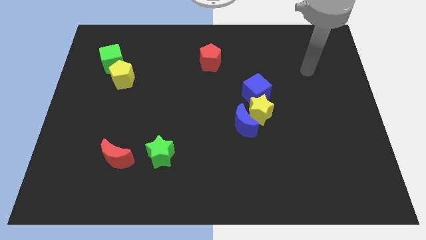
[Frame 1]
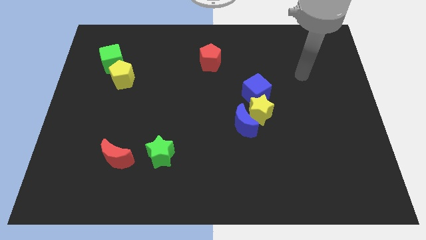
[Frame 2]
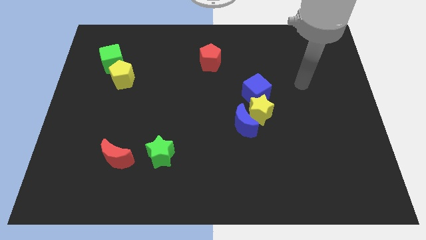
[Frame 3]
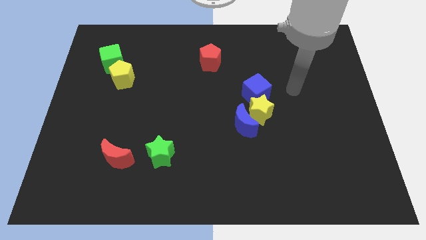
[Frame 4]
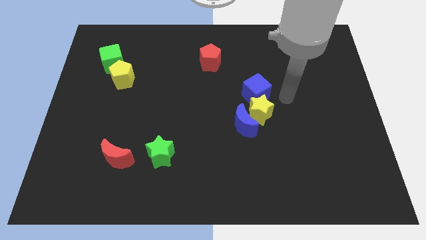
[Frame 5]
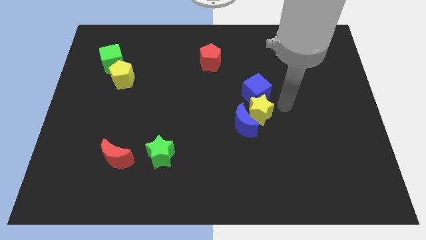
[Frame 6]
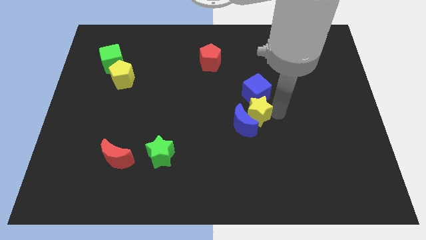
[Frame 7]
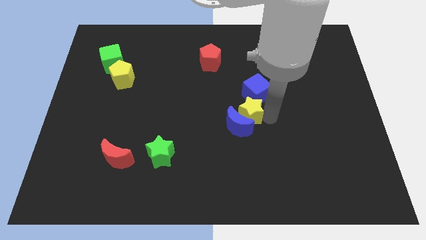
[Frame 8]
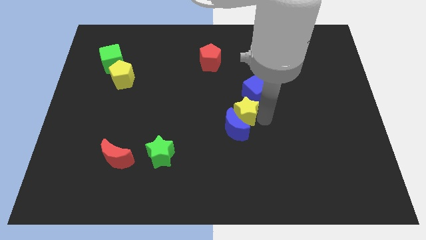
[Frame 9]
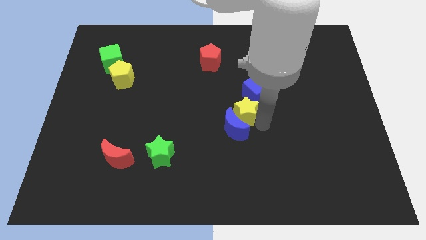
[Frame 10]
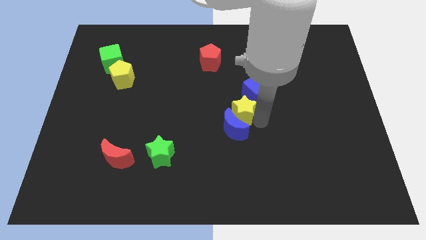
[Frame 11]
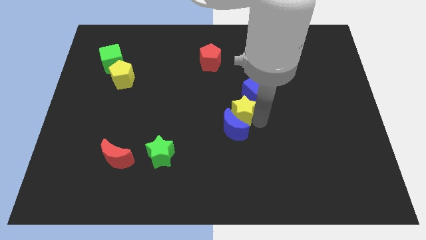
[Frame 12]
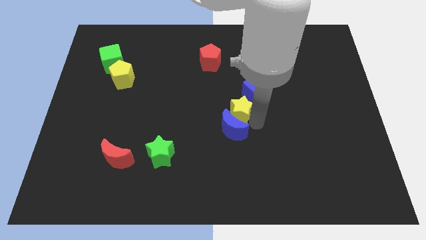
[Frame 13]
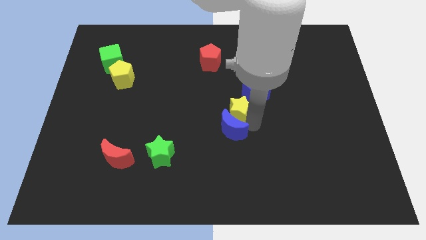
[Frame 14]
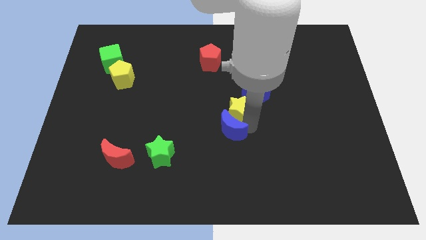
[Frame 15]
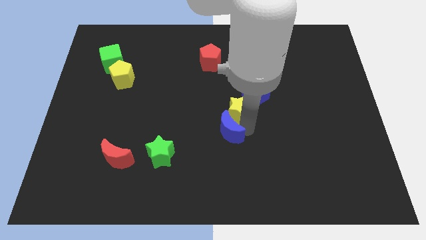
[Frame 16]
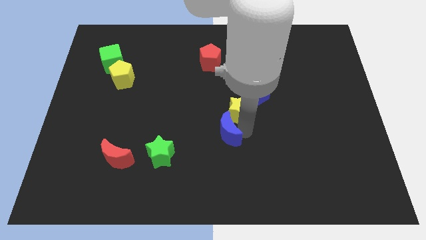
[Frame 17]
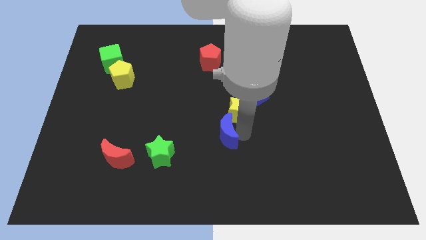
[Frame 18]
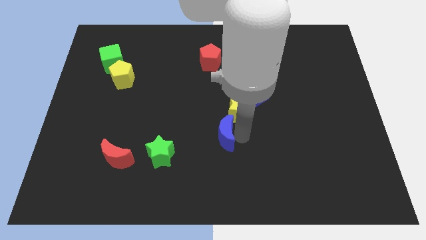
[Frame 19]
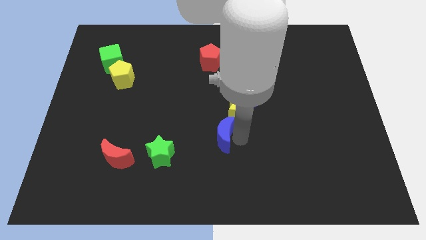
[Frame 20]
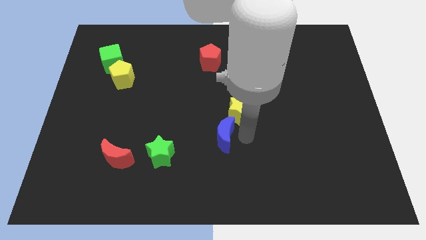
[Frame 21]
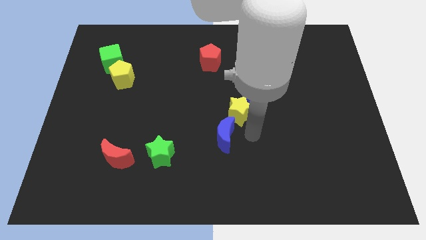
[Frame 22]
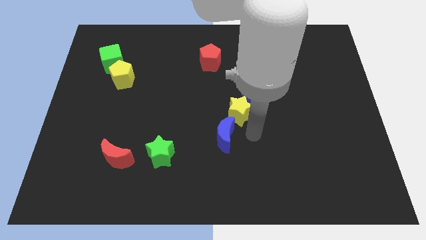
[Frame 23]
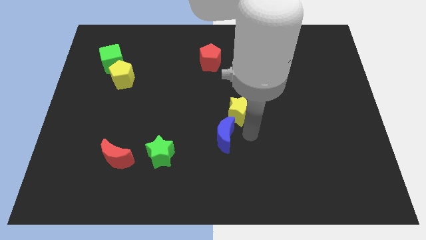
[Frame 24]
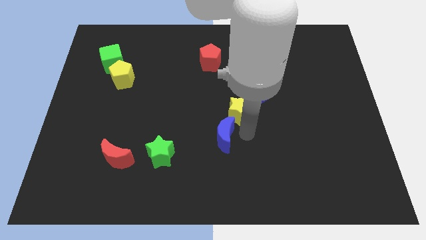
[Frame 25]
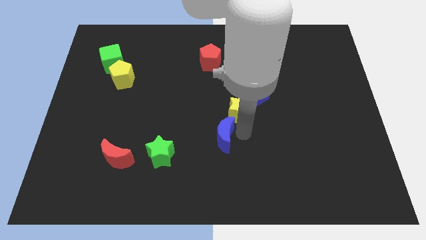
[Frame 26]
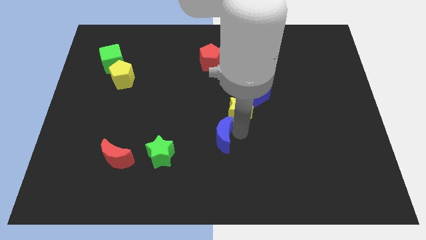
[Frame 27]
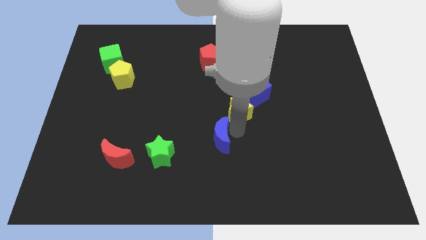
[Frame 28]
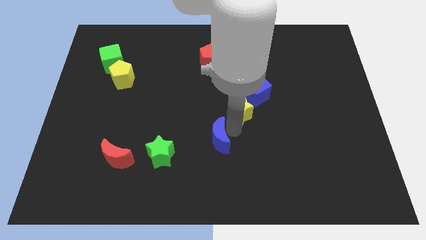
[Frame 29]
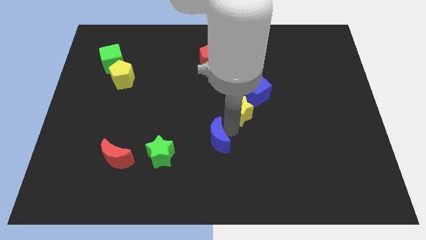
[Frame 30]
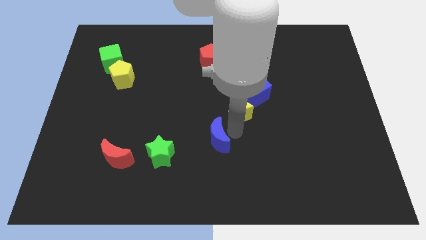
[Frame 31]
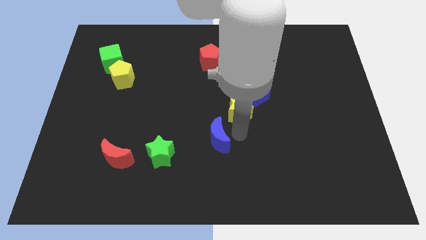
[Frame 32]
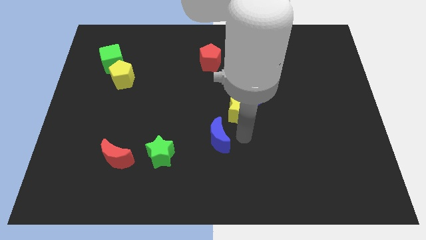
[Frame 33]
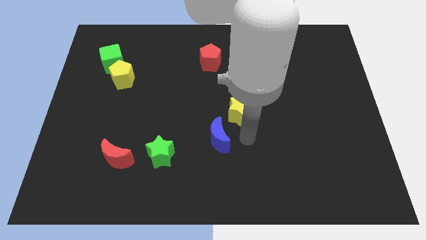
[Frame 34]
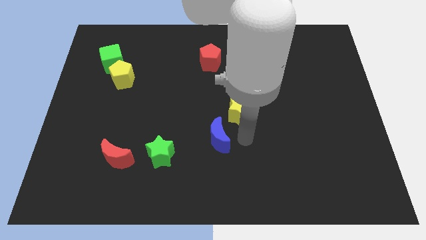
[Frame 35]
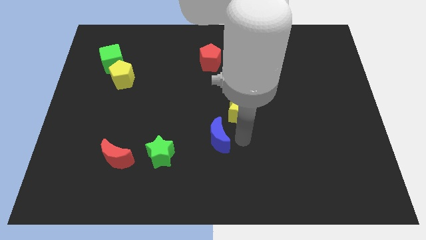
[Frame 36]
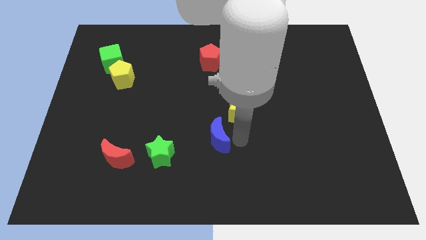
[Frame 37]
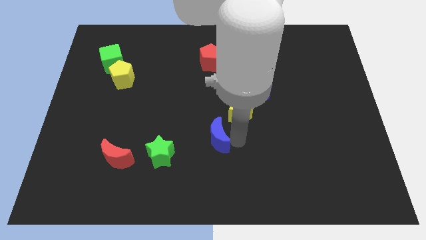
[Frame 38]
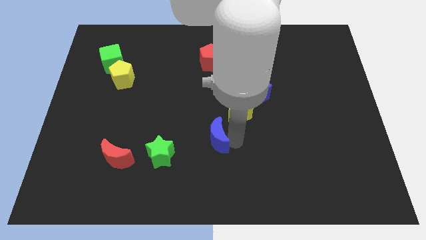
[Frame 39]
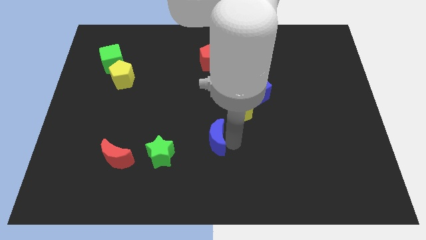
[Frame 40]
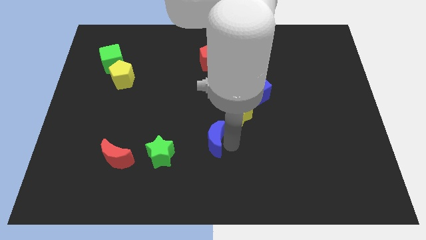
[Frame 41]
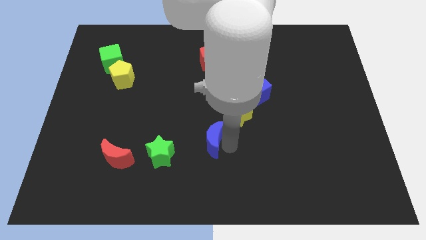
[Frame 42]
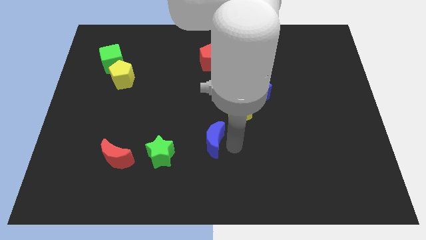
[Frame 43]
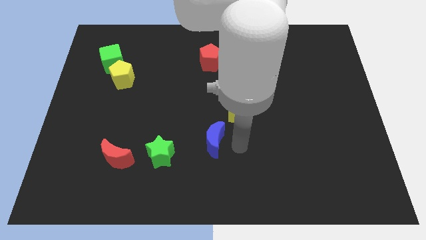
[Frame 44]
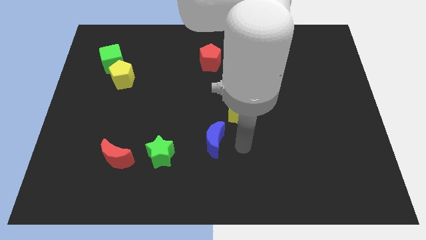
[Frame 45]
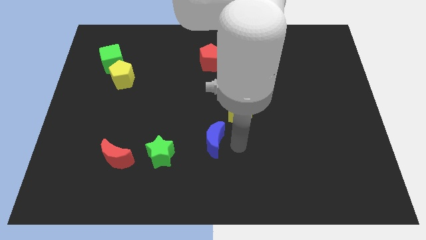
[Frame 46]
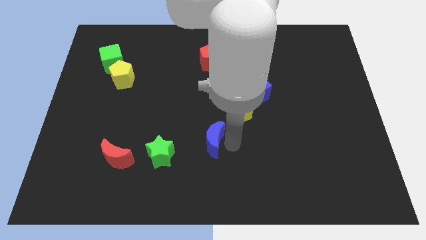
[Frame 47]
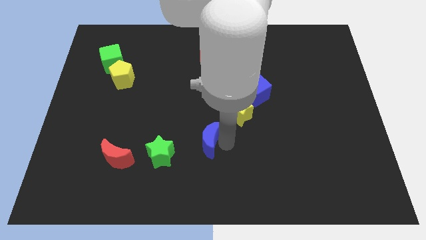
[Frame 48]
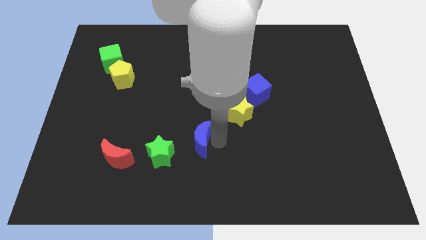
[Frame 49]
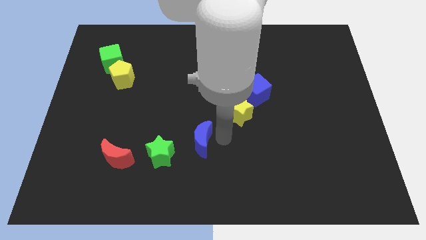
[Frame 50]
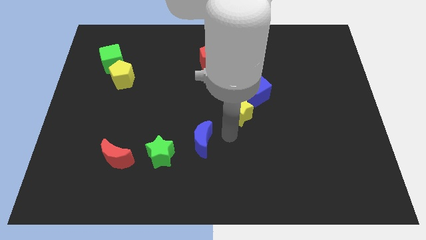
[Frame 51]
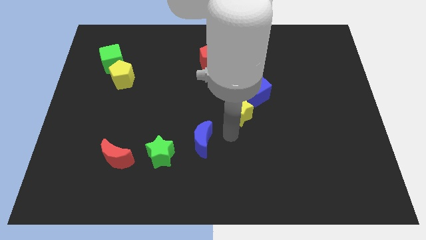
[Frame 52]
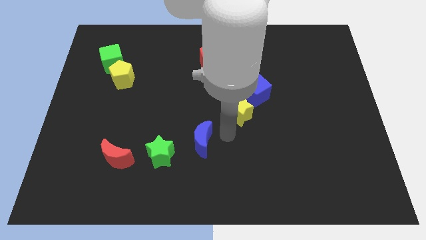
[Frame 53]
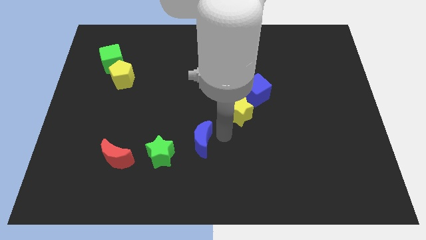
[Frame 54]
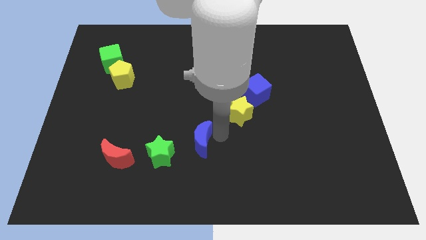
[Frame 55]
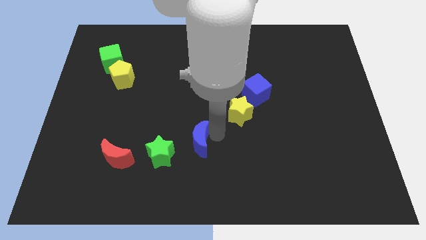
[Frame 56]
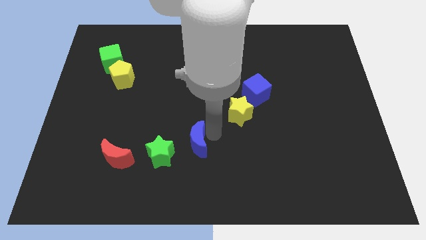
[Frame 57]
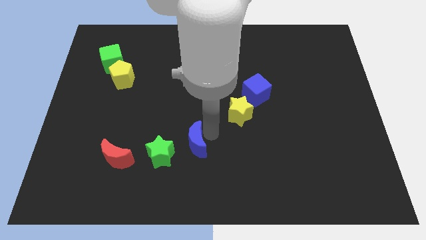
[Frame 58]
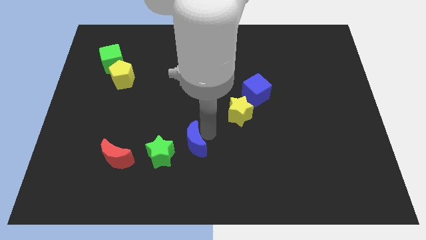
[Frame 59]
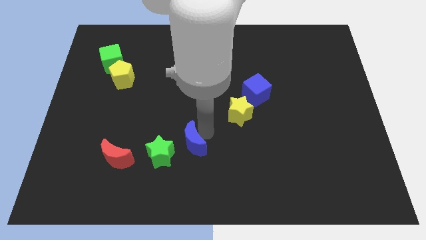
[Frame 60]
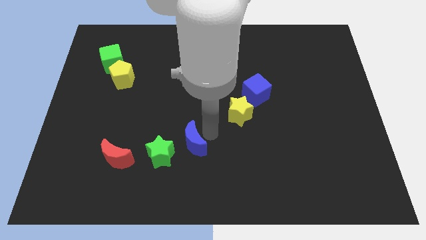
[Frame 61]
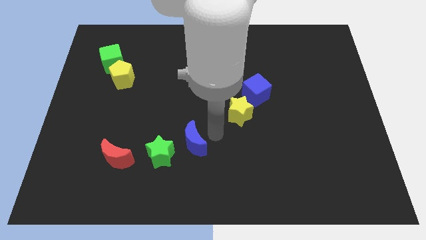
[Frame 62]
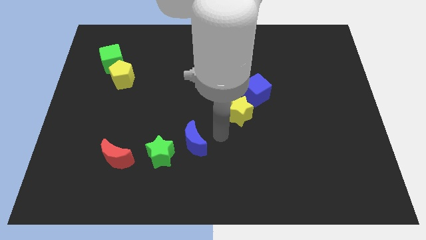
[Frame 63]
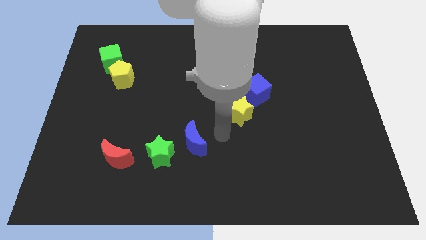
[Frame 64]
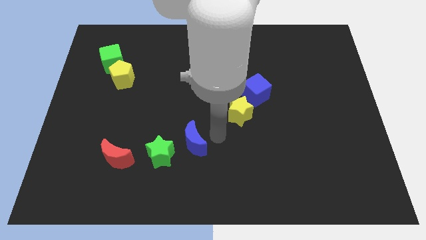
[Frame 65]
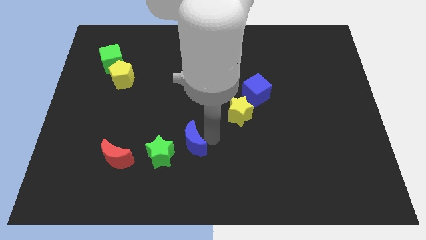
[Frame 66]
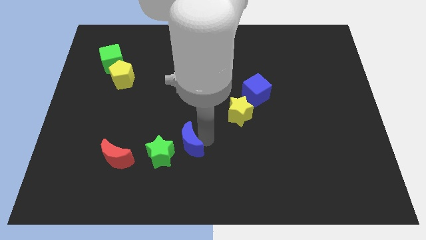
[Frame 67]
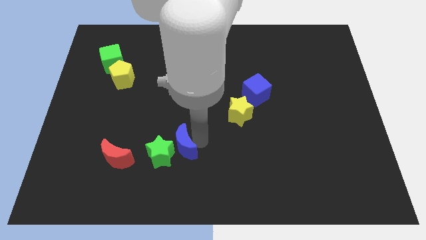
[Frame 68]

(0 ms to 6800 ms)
push the blue moon next to the green star
